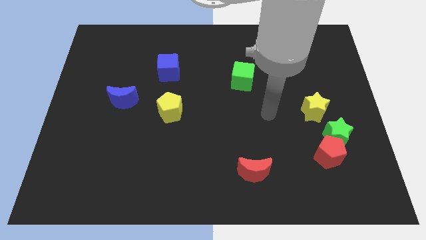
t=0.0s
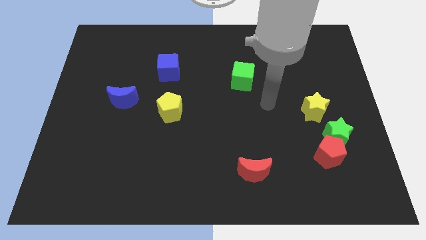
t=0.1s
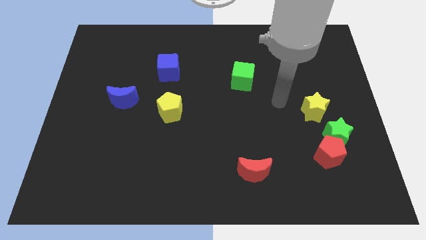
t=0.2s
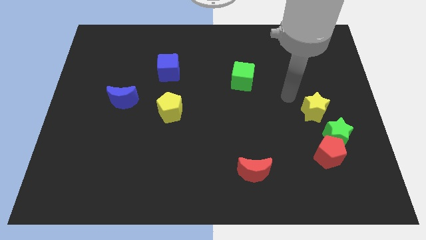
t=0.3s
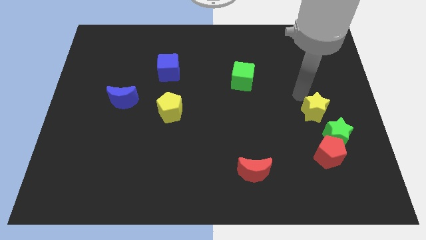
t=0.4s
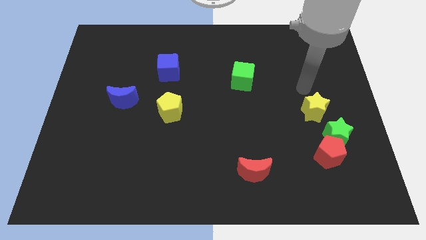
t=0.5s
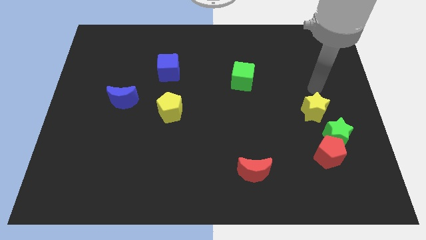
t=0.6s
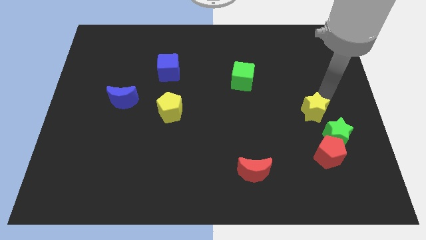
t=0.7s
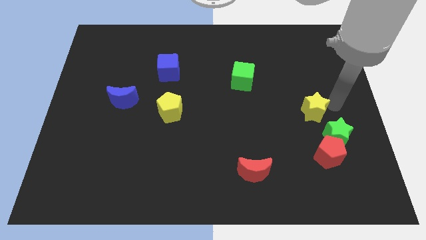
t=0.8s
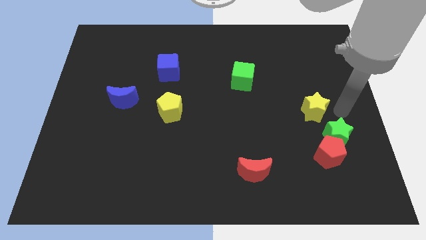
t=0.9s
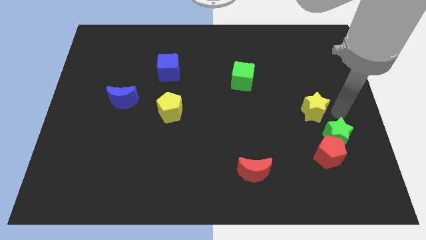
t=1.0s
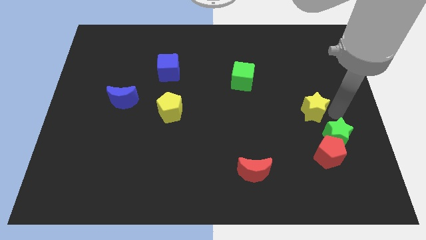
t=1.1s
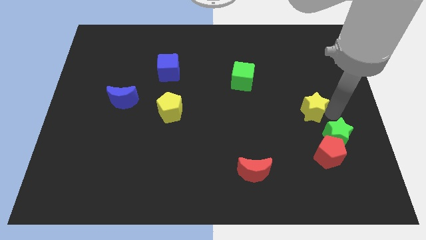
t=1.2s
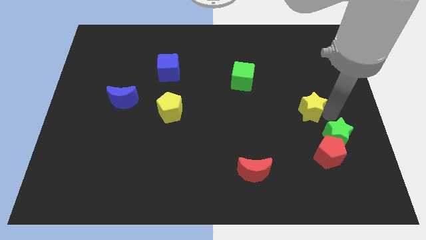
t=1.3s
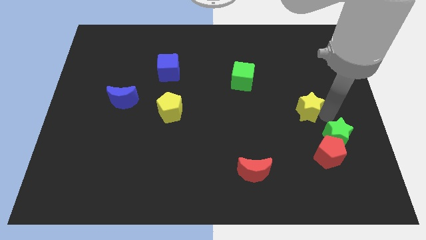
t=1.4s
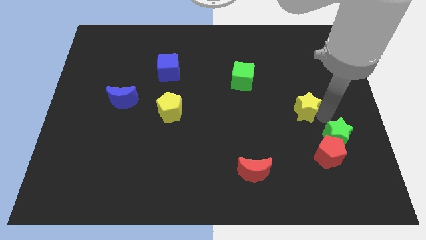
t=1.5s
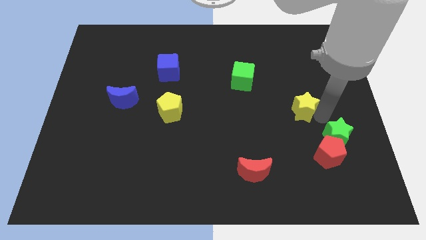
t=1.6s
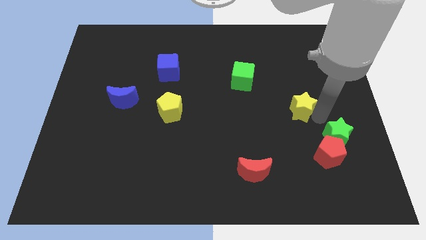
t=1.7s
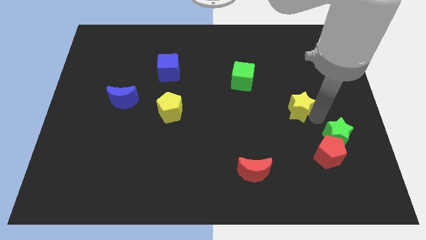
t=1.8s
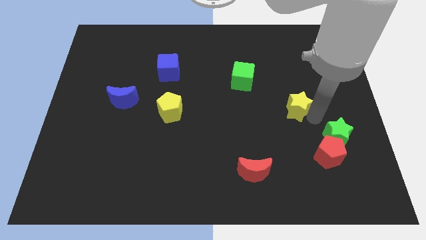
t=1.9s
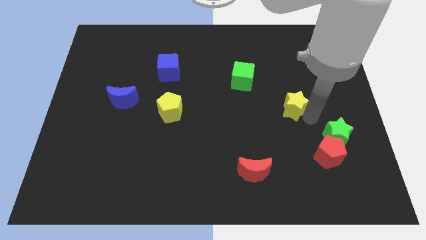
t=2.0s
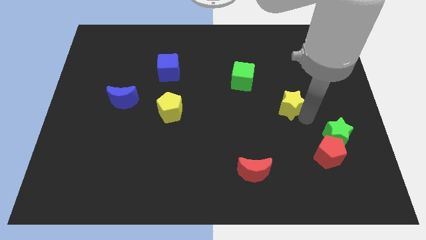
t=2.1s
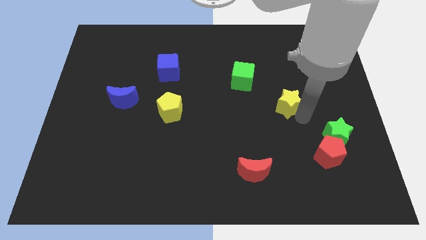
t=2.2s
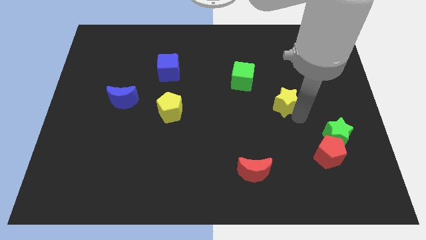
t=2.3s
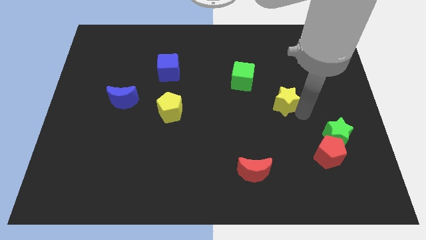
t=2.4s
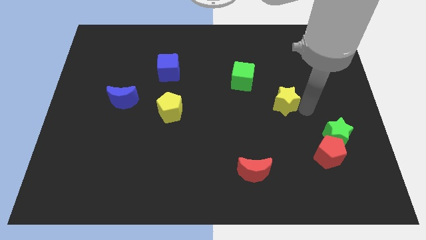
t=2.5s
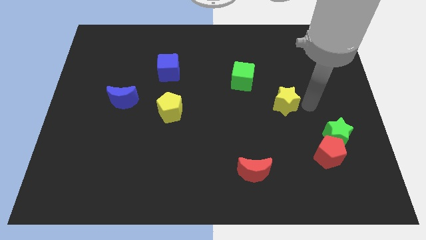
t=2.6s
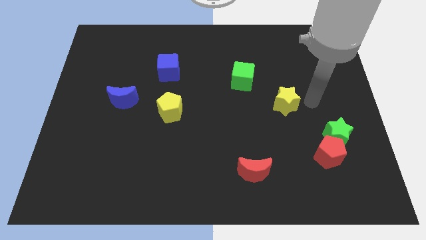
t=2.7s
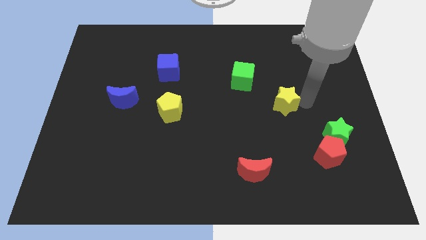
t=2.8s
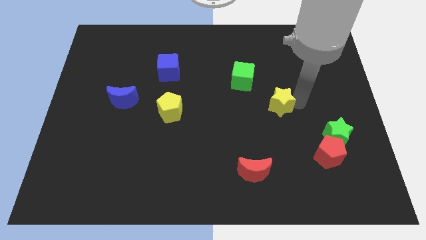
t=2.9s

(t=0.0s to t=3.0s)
push the yellow star a little left

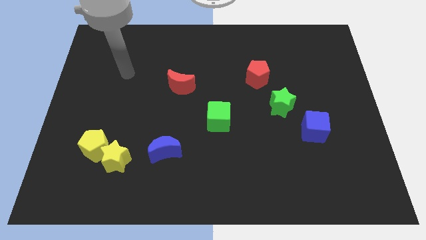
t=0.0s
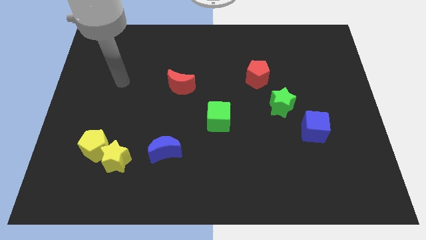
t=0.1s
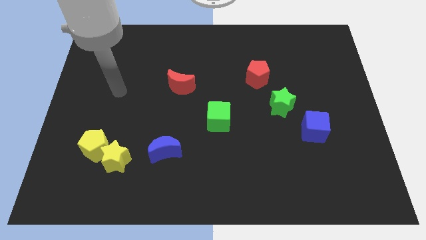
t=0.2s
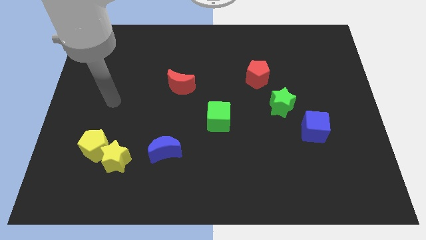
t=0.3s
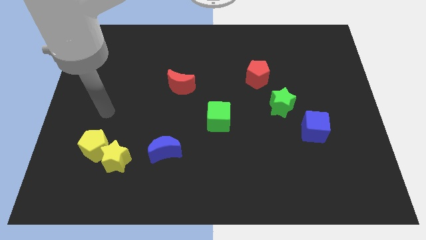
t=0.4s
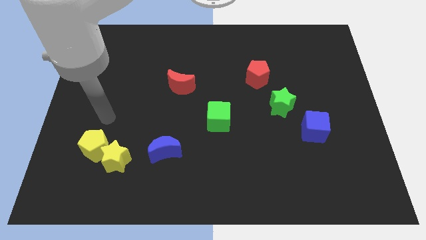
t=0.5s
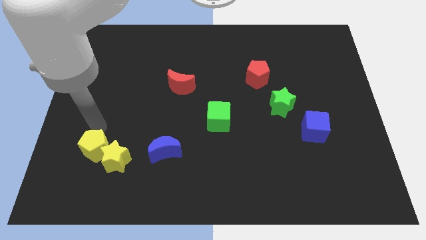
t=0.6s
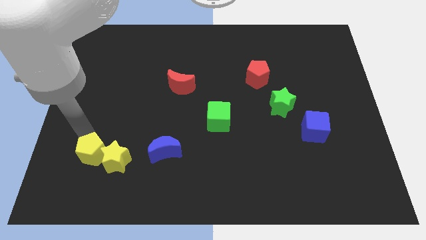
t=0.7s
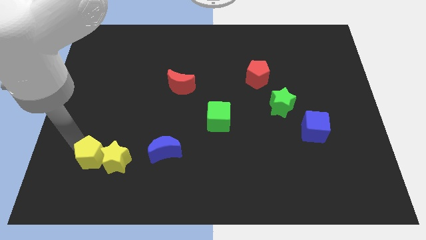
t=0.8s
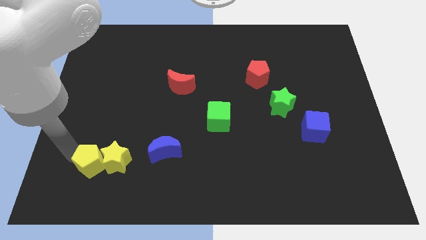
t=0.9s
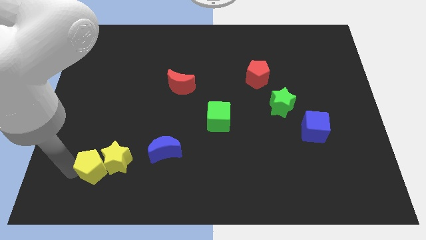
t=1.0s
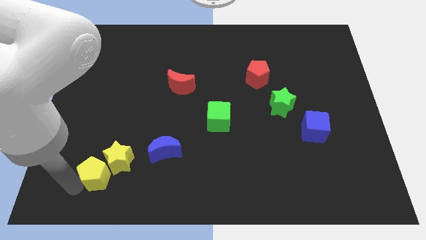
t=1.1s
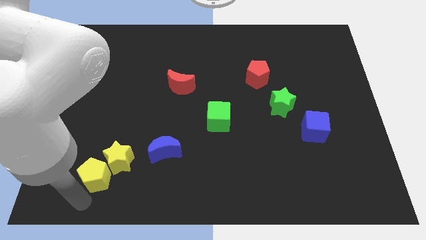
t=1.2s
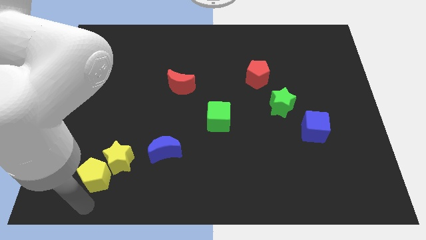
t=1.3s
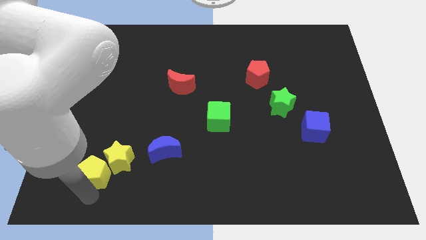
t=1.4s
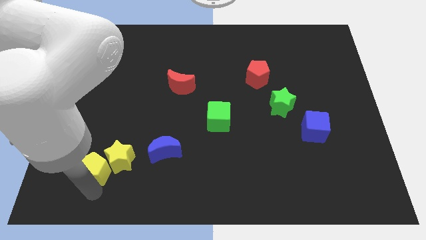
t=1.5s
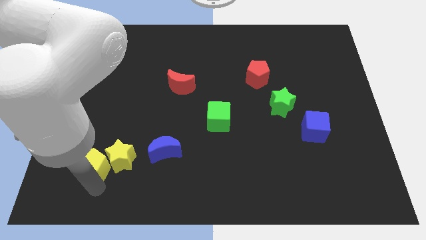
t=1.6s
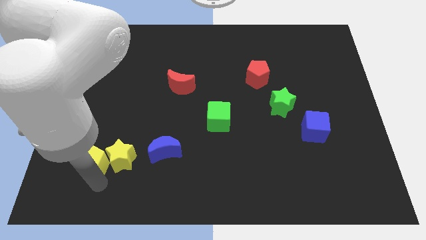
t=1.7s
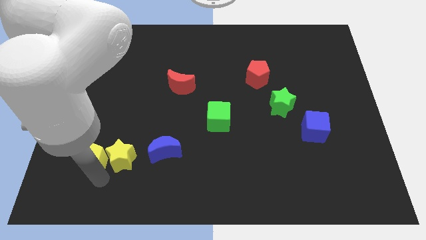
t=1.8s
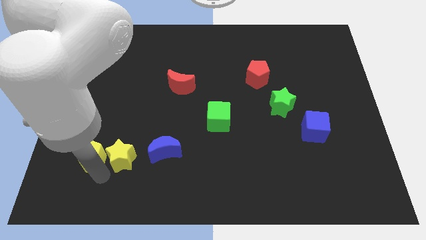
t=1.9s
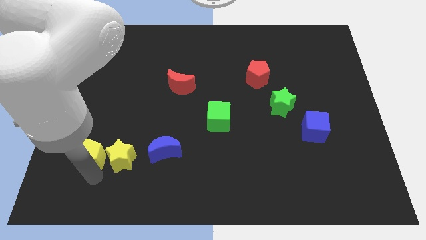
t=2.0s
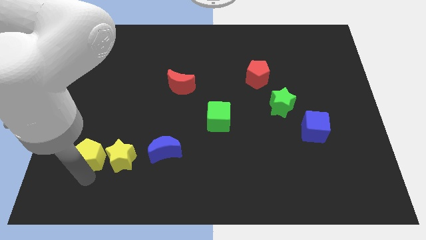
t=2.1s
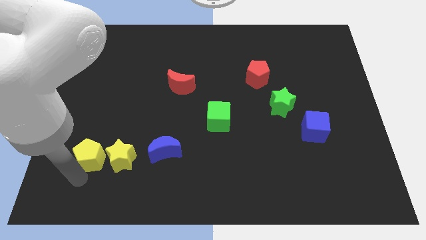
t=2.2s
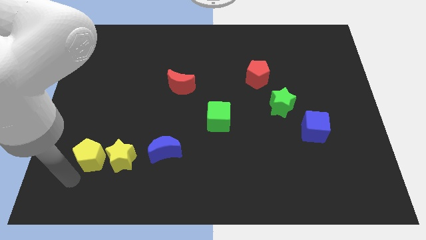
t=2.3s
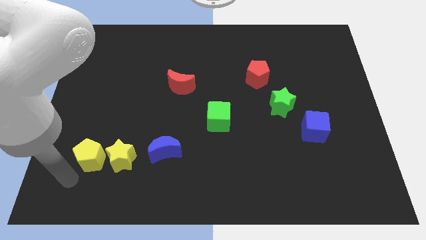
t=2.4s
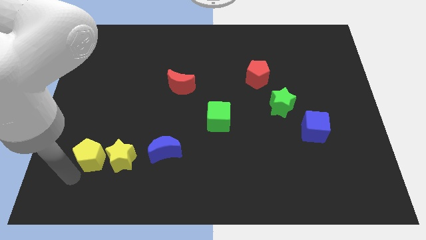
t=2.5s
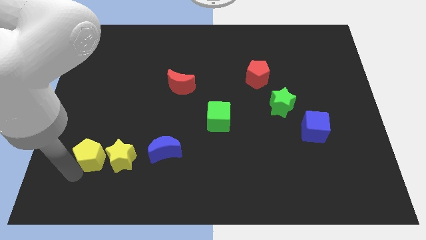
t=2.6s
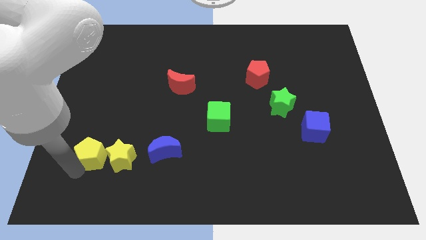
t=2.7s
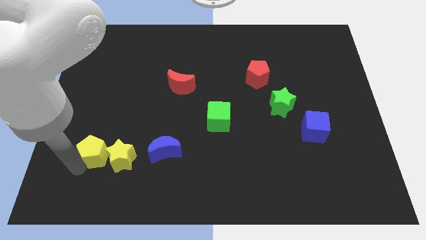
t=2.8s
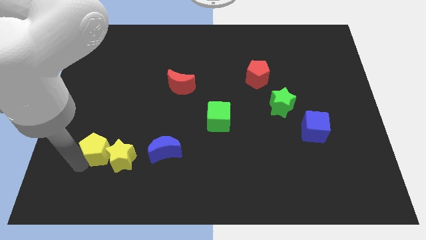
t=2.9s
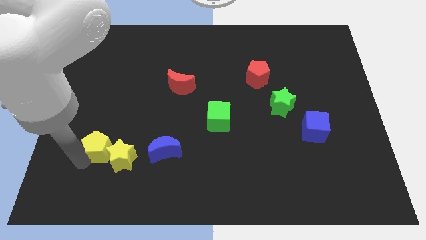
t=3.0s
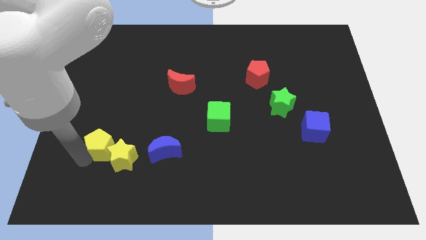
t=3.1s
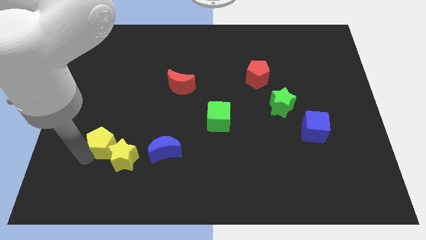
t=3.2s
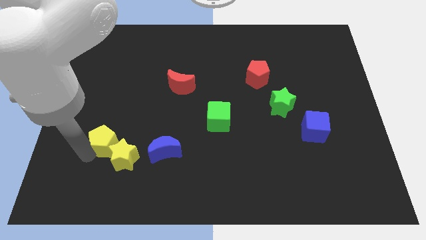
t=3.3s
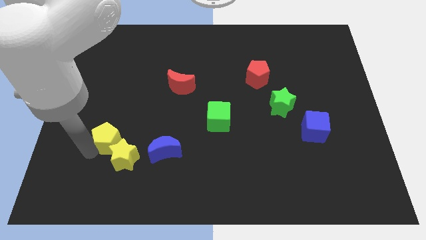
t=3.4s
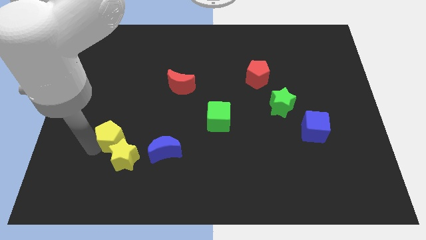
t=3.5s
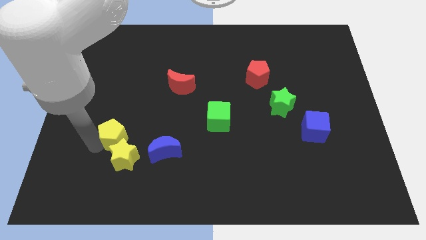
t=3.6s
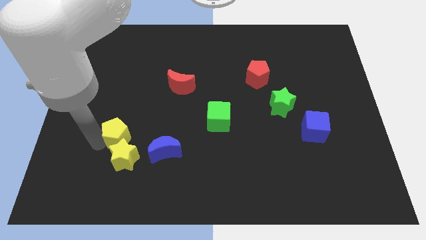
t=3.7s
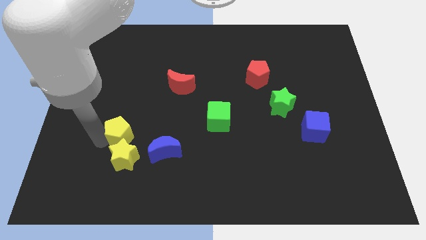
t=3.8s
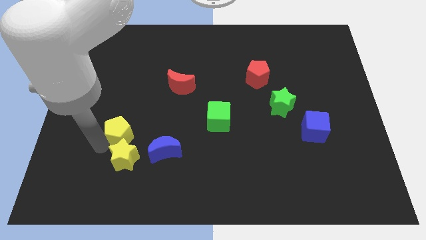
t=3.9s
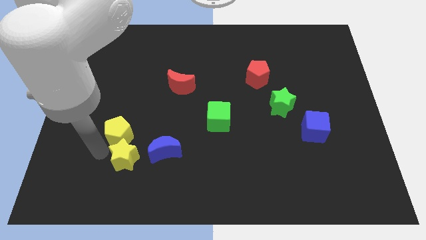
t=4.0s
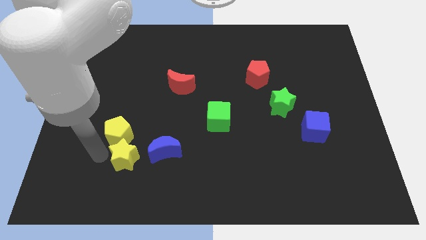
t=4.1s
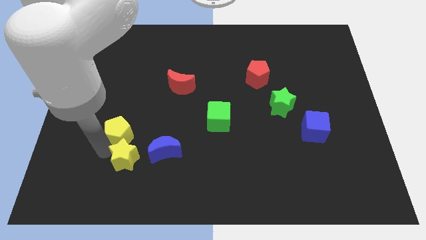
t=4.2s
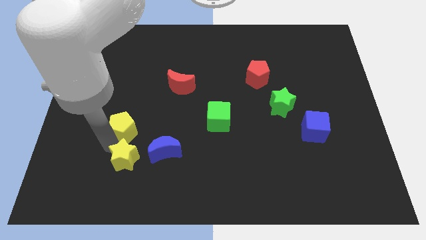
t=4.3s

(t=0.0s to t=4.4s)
move the yellow pentagon a little diagonally upwards and to the right

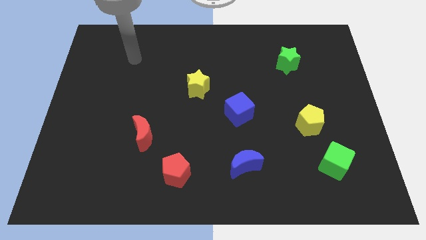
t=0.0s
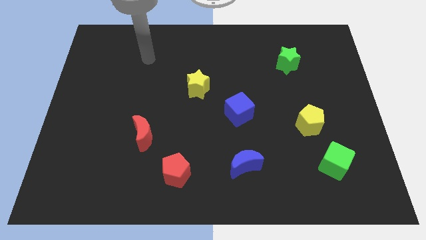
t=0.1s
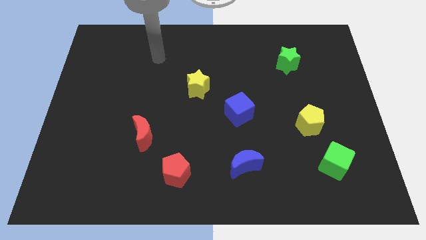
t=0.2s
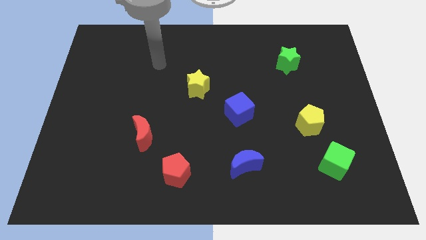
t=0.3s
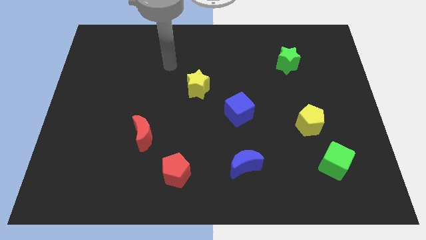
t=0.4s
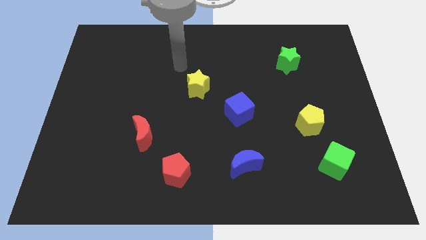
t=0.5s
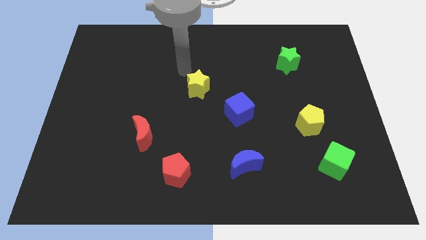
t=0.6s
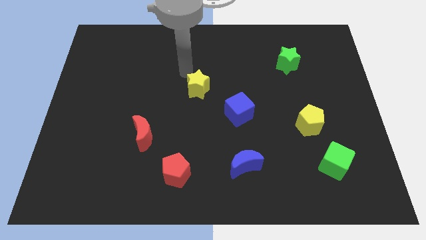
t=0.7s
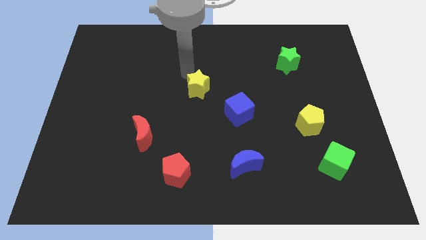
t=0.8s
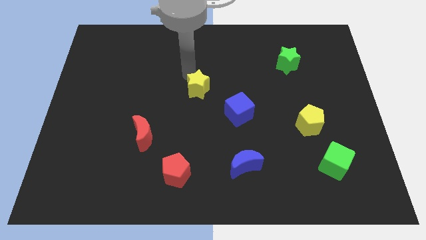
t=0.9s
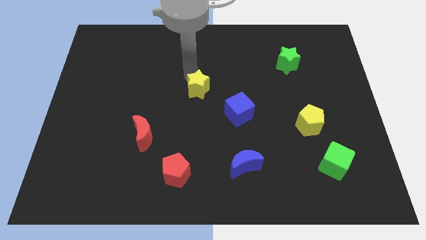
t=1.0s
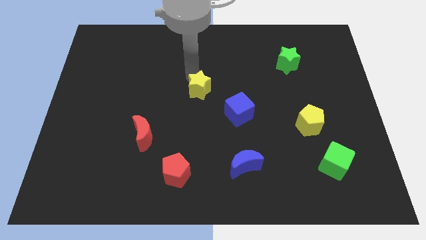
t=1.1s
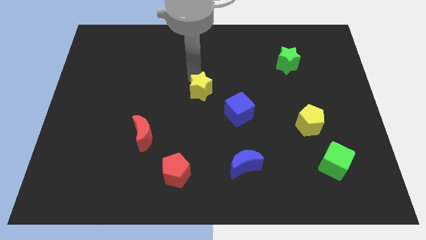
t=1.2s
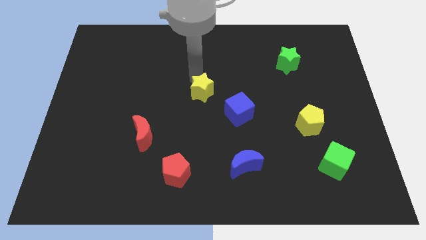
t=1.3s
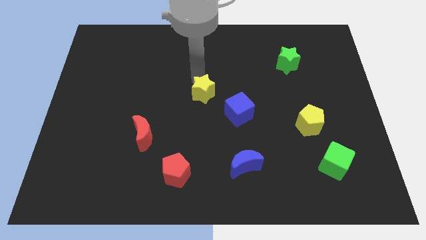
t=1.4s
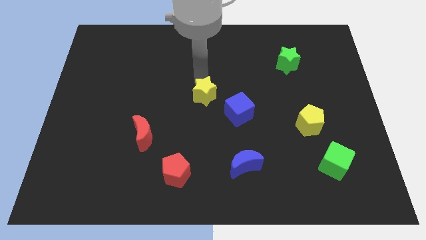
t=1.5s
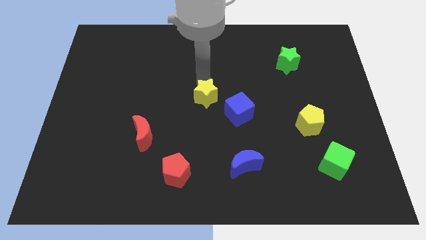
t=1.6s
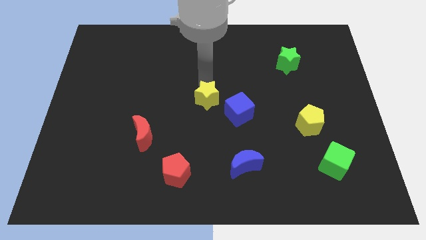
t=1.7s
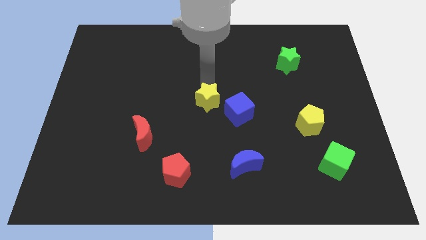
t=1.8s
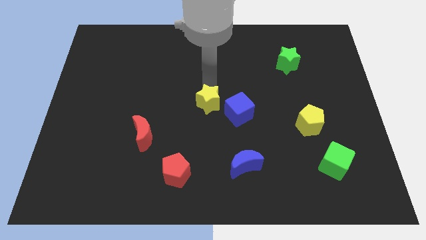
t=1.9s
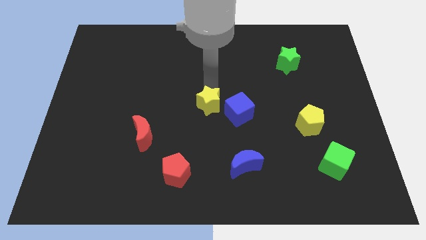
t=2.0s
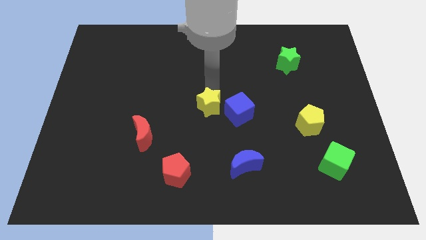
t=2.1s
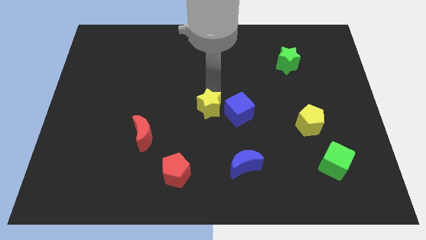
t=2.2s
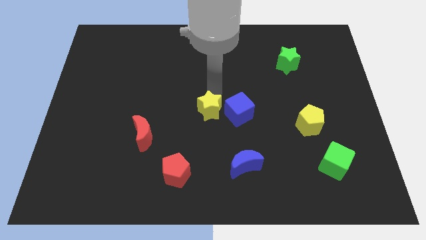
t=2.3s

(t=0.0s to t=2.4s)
slide the yellow star a little downwards and right diagonally
